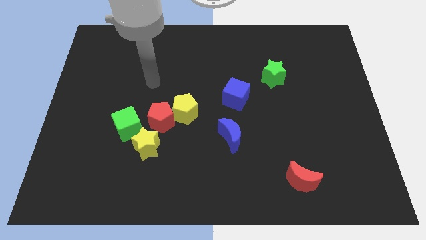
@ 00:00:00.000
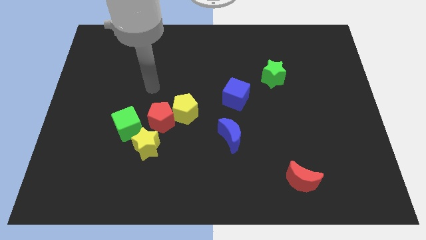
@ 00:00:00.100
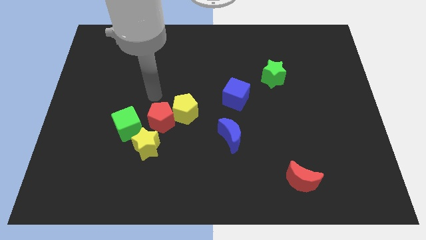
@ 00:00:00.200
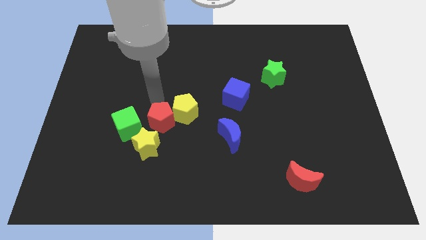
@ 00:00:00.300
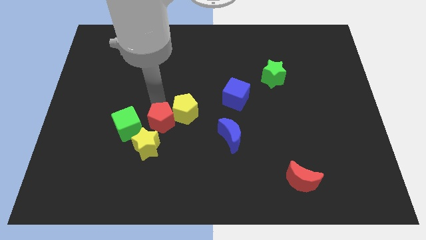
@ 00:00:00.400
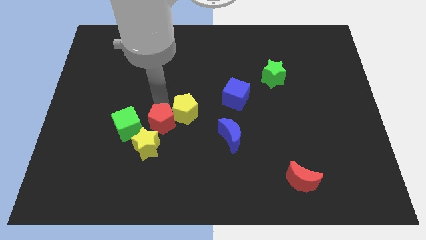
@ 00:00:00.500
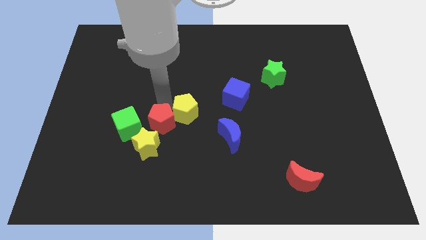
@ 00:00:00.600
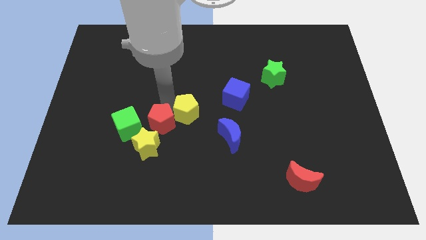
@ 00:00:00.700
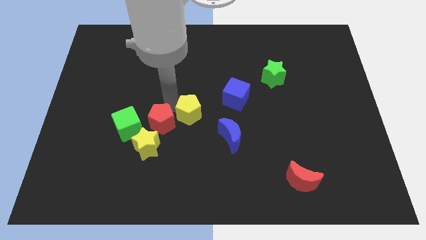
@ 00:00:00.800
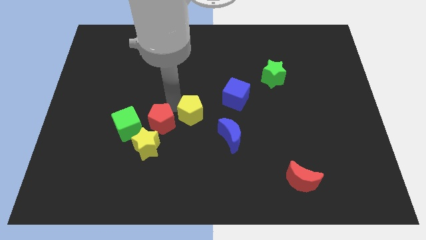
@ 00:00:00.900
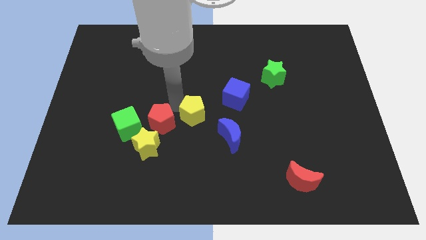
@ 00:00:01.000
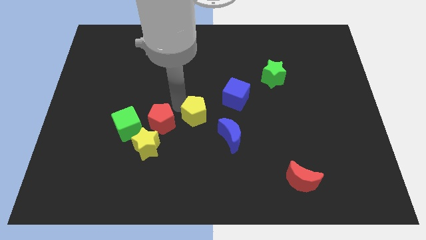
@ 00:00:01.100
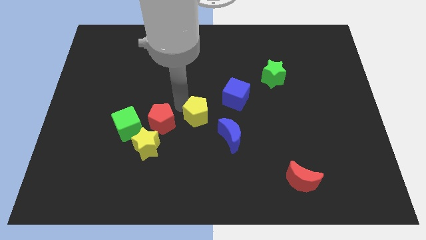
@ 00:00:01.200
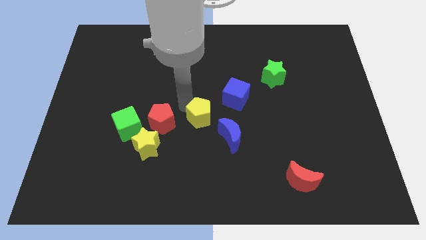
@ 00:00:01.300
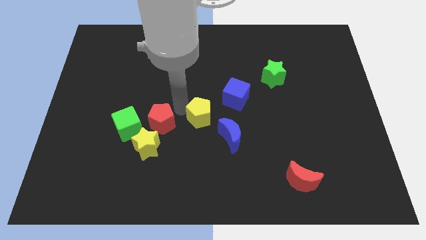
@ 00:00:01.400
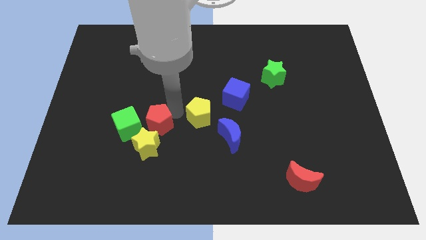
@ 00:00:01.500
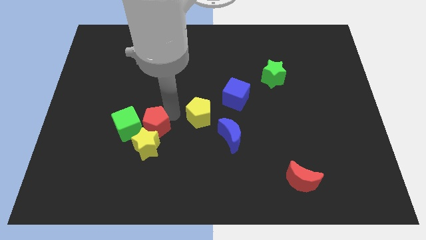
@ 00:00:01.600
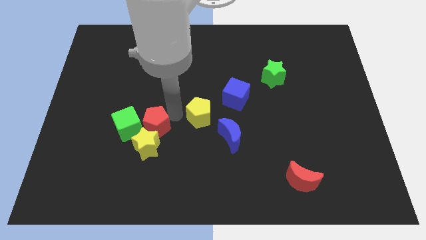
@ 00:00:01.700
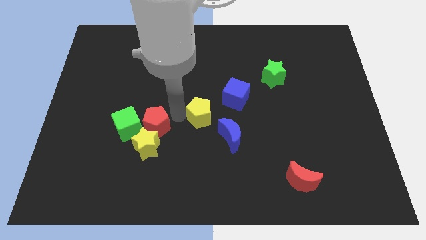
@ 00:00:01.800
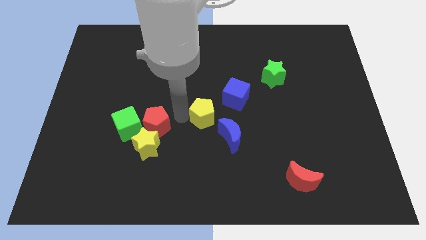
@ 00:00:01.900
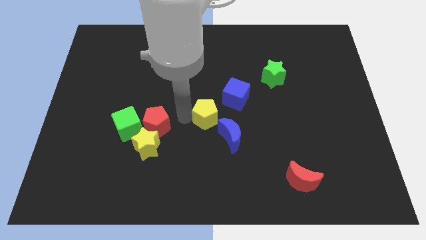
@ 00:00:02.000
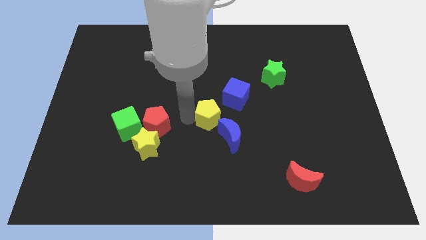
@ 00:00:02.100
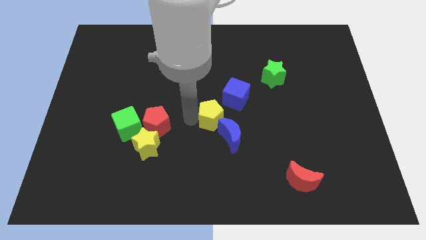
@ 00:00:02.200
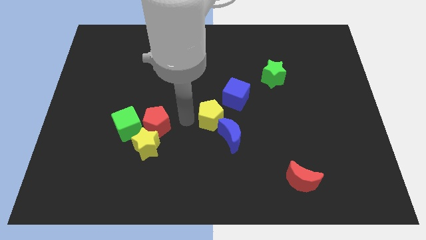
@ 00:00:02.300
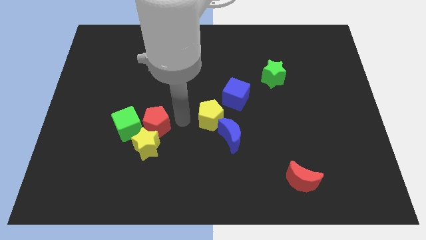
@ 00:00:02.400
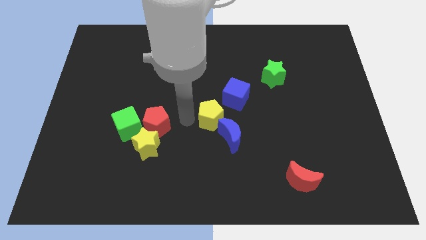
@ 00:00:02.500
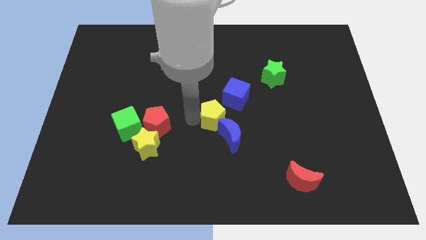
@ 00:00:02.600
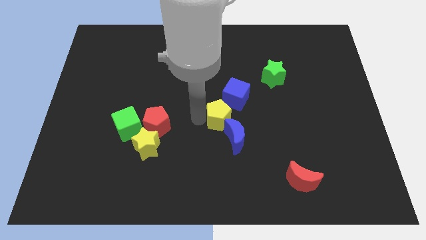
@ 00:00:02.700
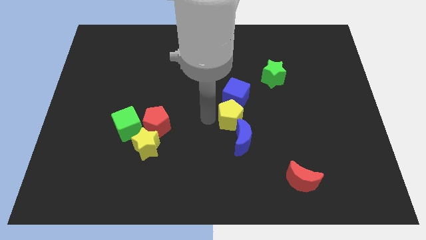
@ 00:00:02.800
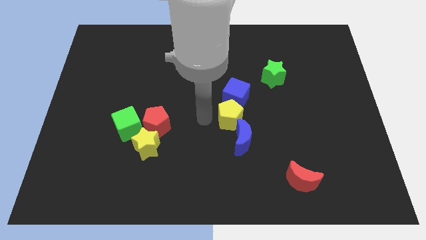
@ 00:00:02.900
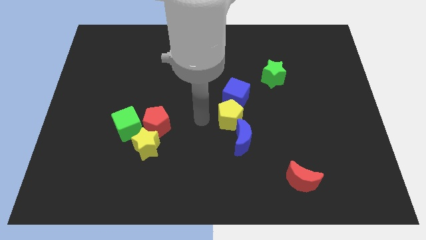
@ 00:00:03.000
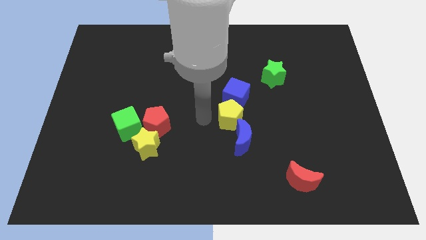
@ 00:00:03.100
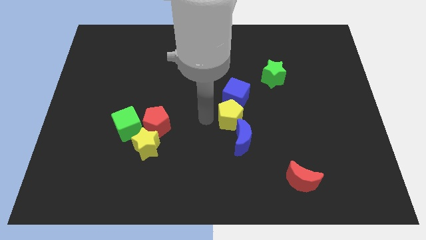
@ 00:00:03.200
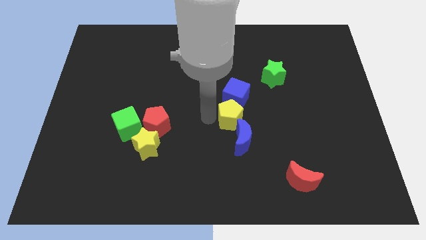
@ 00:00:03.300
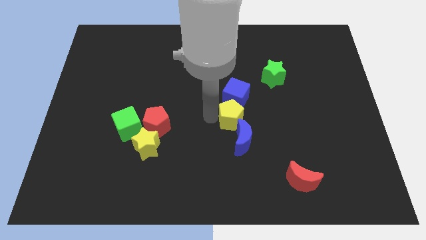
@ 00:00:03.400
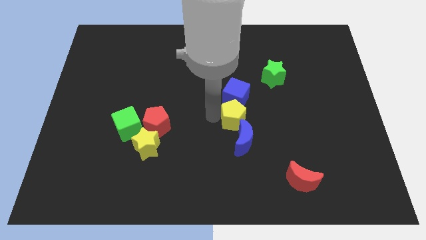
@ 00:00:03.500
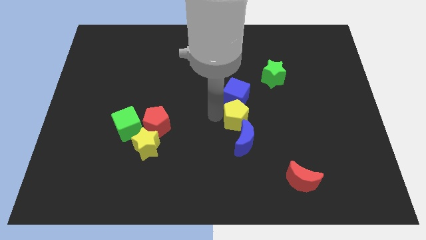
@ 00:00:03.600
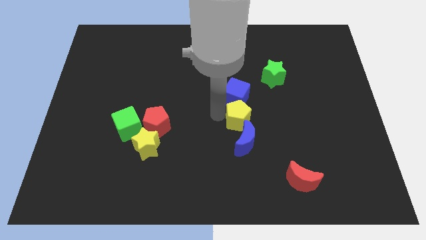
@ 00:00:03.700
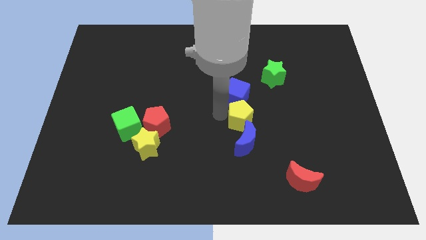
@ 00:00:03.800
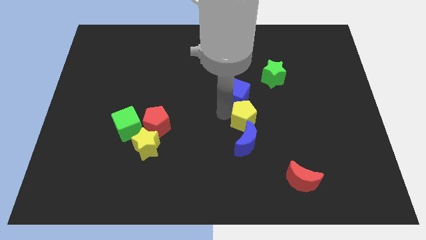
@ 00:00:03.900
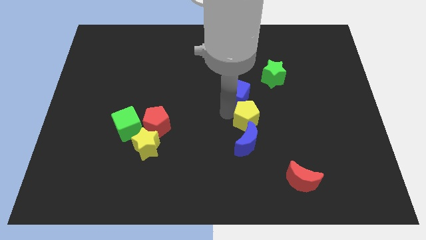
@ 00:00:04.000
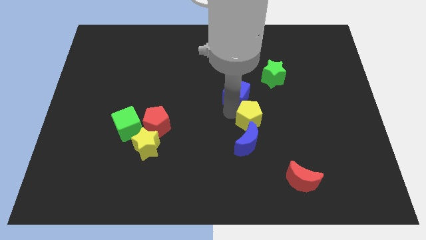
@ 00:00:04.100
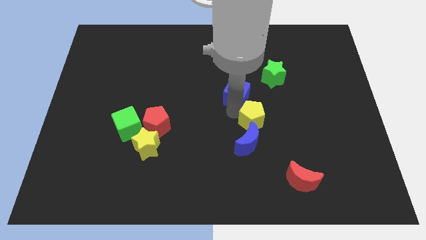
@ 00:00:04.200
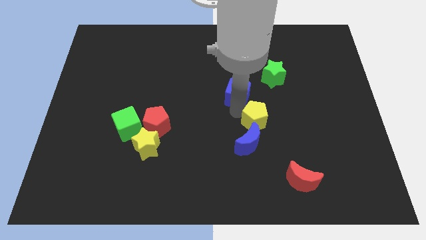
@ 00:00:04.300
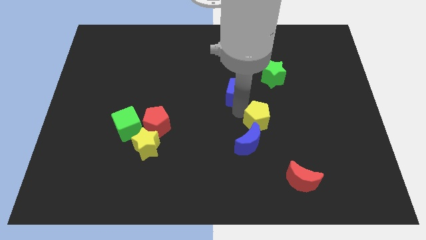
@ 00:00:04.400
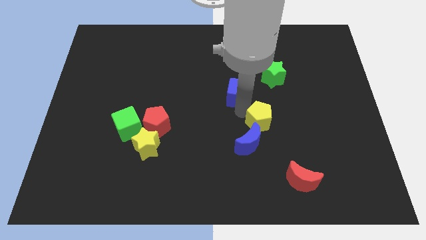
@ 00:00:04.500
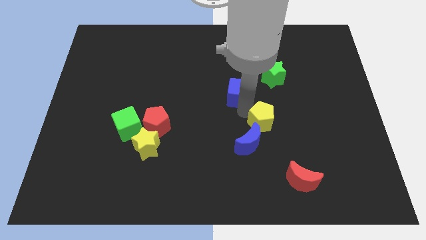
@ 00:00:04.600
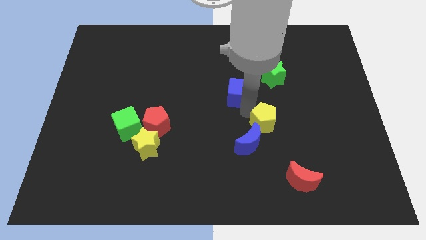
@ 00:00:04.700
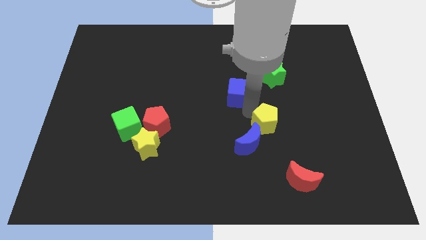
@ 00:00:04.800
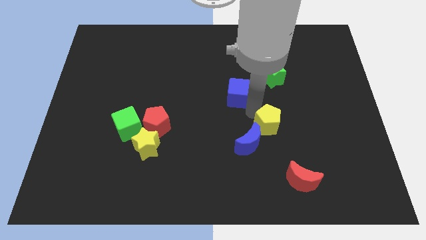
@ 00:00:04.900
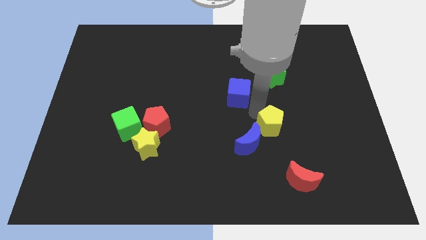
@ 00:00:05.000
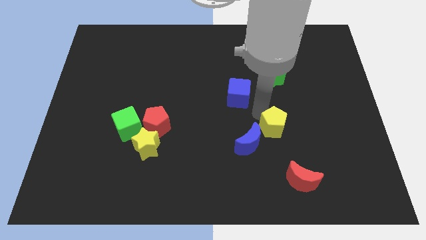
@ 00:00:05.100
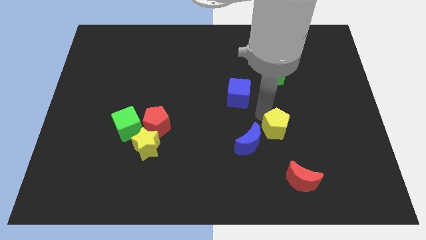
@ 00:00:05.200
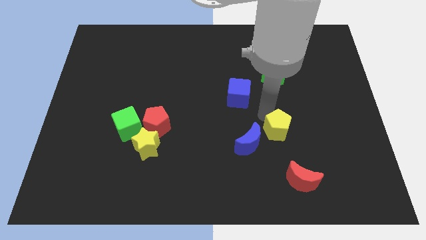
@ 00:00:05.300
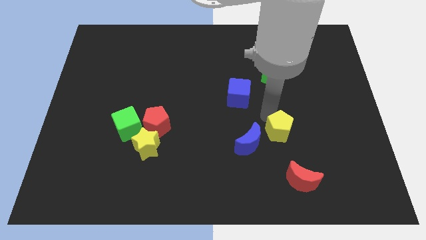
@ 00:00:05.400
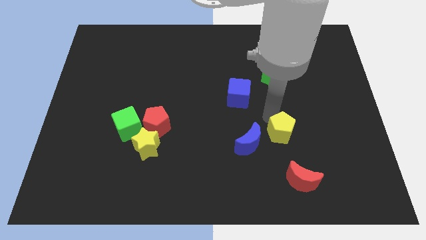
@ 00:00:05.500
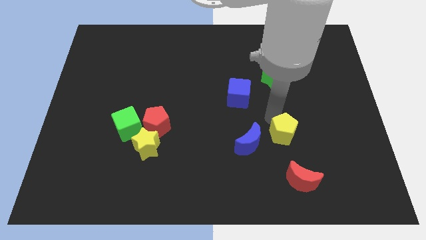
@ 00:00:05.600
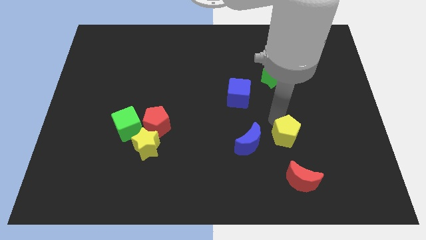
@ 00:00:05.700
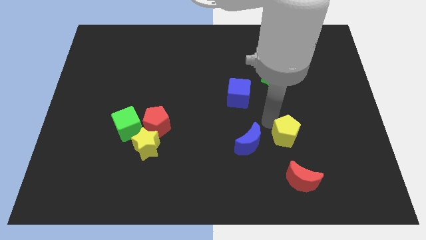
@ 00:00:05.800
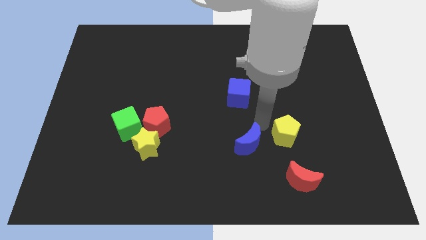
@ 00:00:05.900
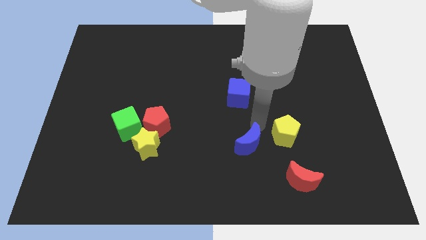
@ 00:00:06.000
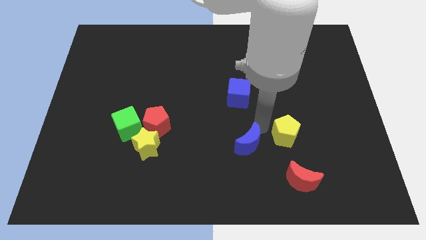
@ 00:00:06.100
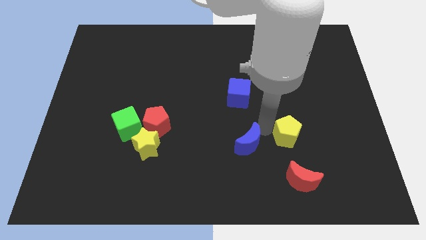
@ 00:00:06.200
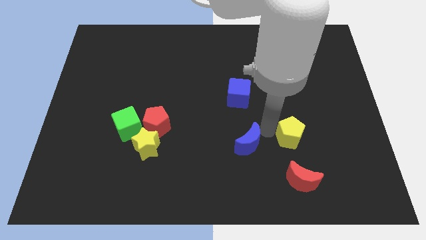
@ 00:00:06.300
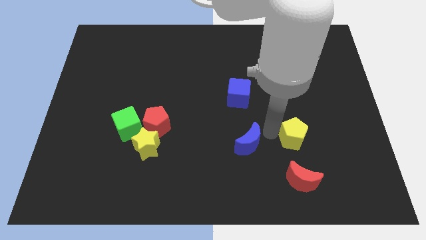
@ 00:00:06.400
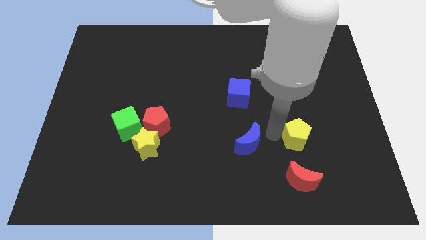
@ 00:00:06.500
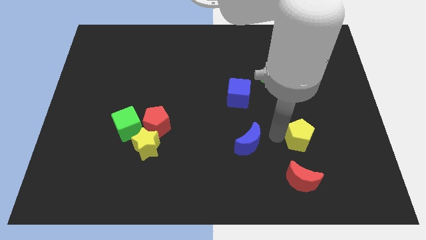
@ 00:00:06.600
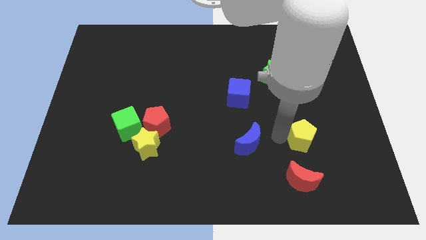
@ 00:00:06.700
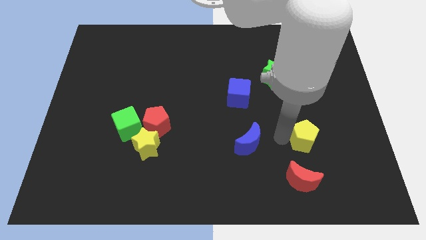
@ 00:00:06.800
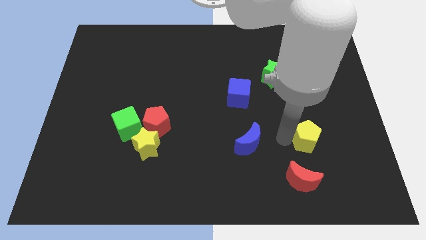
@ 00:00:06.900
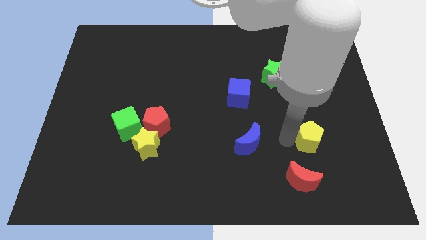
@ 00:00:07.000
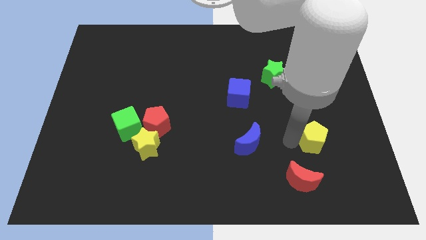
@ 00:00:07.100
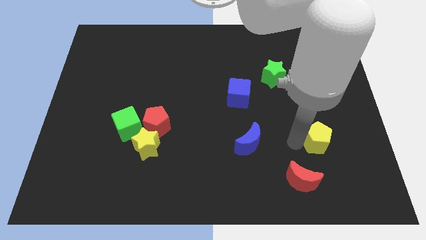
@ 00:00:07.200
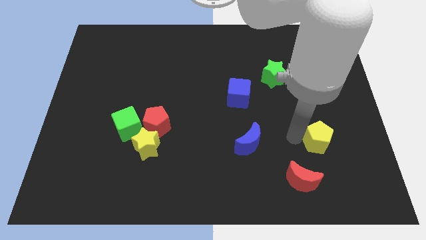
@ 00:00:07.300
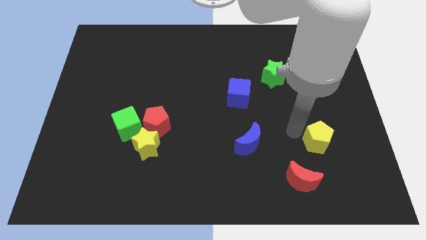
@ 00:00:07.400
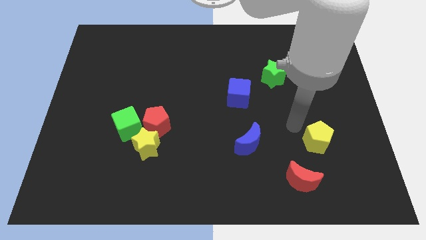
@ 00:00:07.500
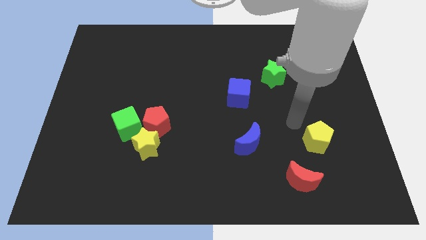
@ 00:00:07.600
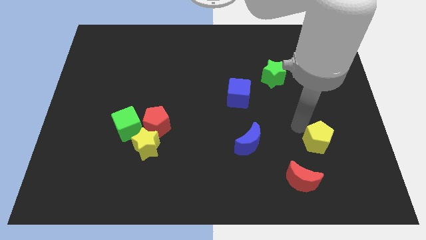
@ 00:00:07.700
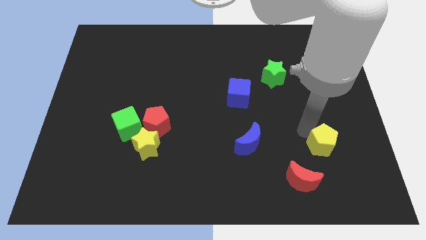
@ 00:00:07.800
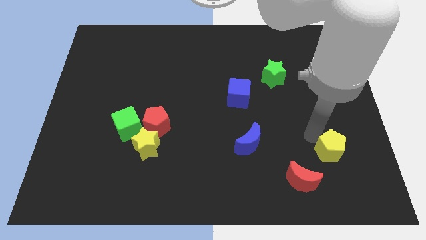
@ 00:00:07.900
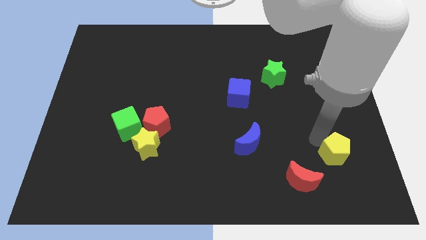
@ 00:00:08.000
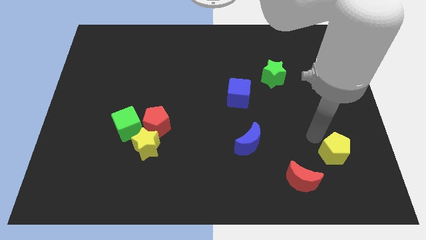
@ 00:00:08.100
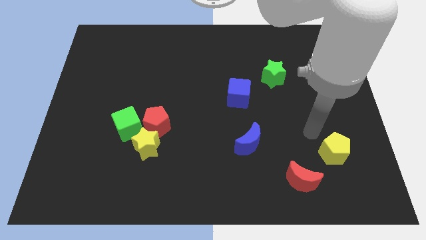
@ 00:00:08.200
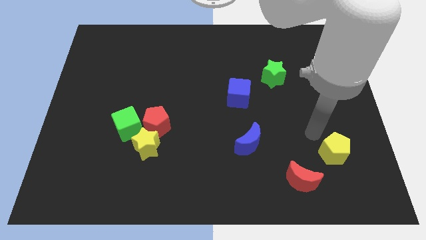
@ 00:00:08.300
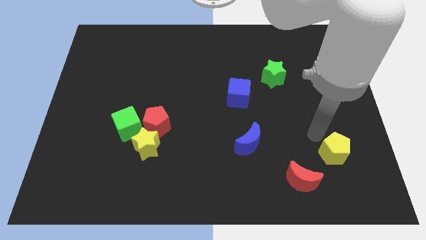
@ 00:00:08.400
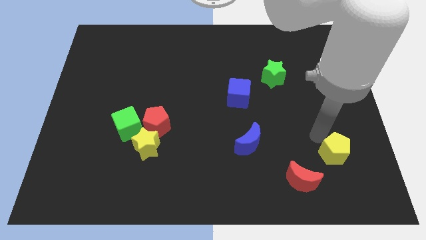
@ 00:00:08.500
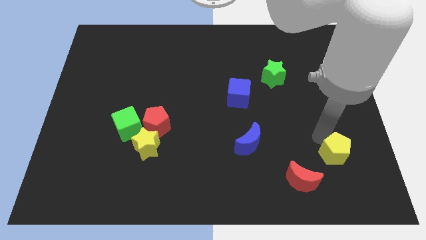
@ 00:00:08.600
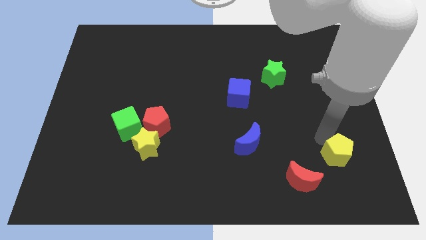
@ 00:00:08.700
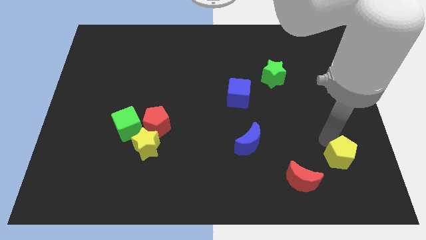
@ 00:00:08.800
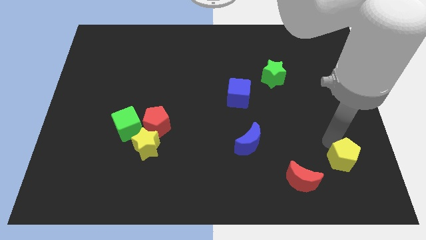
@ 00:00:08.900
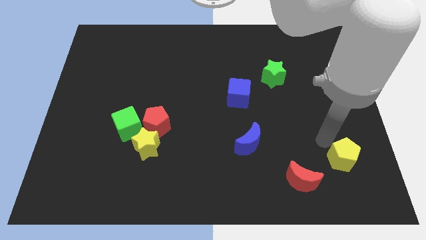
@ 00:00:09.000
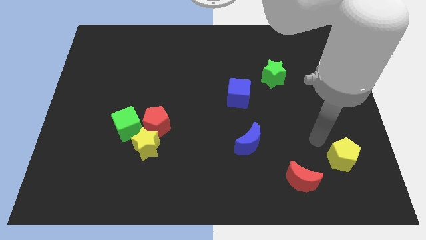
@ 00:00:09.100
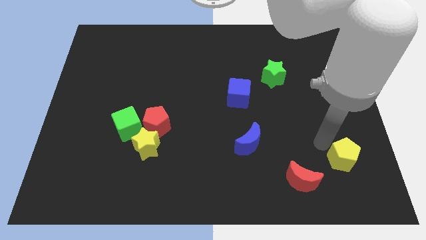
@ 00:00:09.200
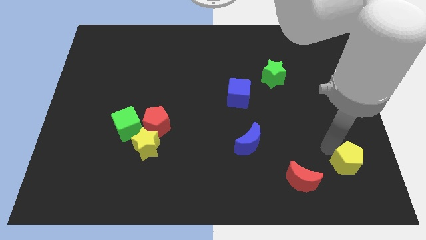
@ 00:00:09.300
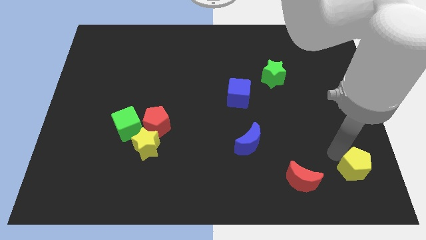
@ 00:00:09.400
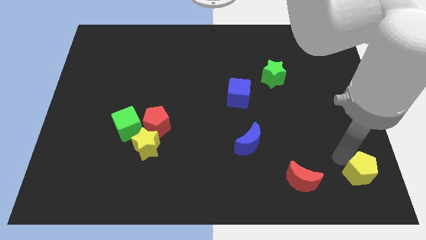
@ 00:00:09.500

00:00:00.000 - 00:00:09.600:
put the yellow pentagon to the lower right corner
